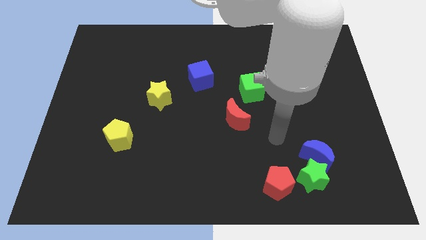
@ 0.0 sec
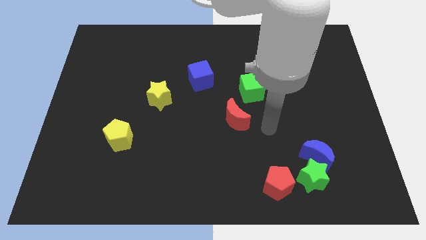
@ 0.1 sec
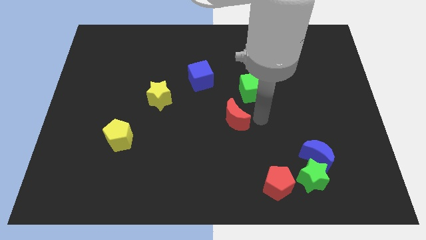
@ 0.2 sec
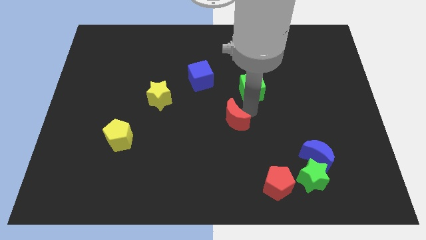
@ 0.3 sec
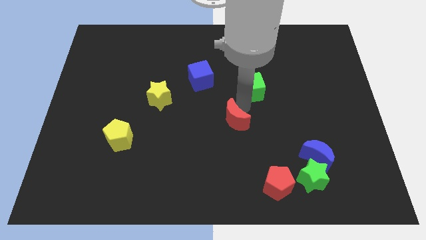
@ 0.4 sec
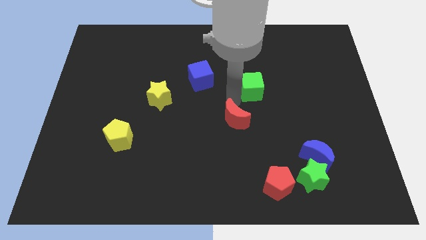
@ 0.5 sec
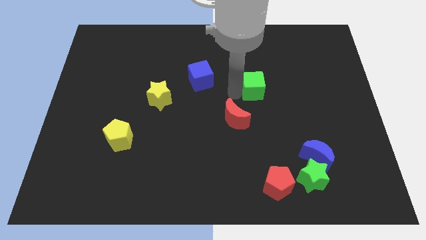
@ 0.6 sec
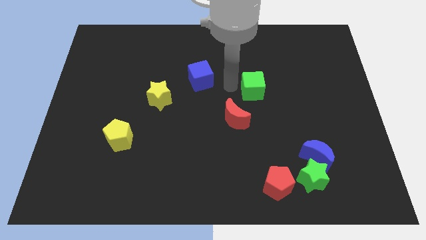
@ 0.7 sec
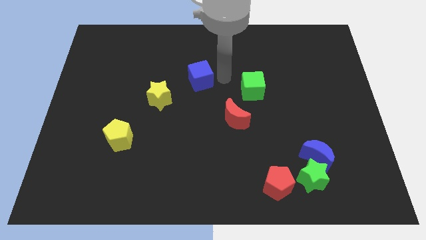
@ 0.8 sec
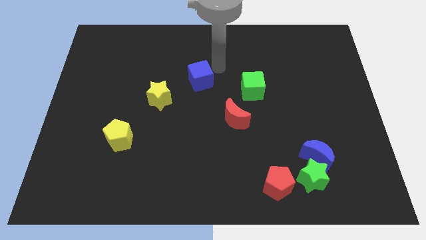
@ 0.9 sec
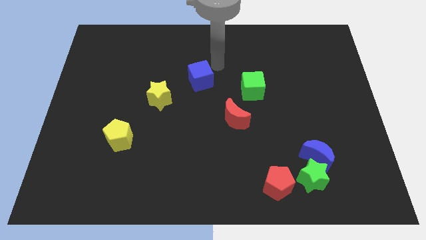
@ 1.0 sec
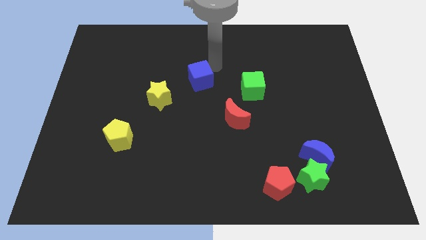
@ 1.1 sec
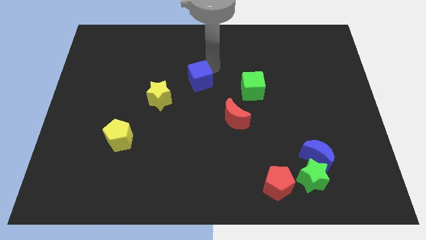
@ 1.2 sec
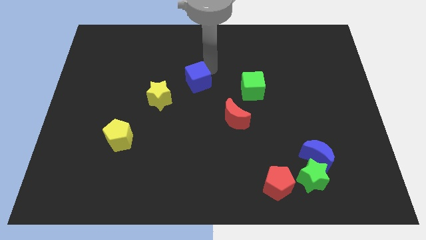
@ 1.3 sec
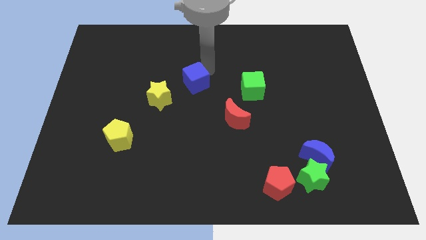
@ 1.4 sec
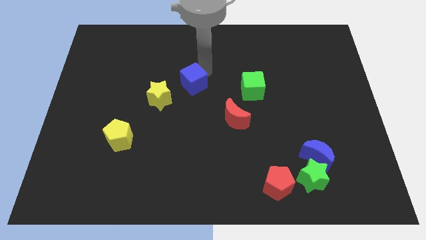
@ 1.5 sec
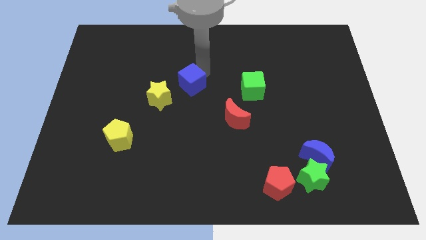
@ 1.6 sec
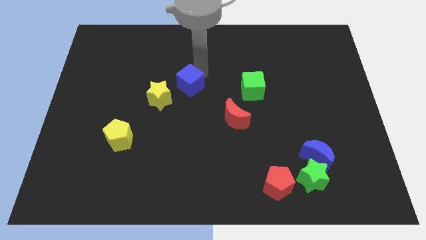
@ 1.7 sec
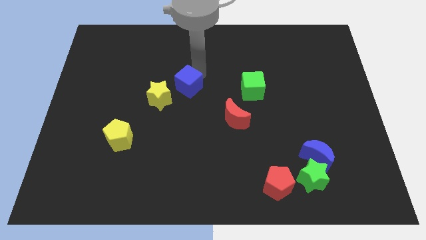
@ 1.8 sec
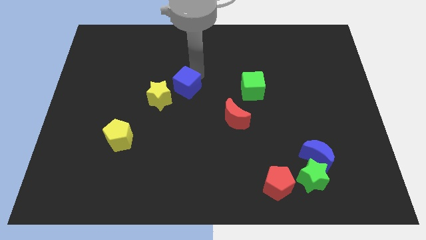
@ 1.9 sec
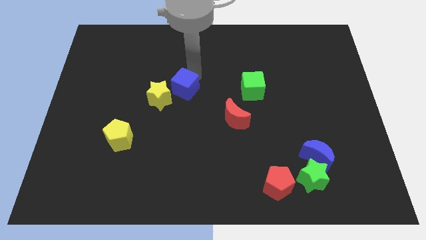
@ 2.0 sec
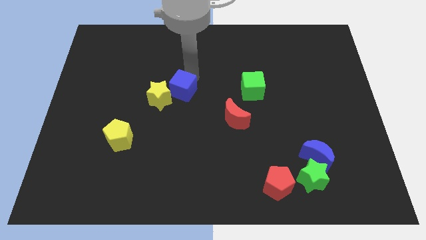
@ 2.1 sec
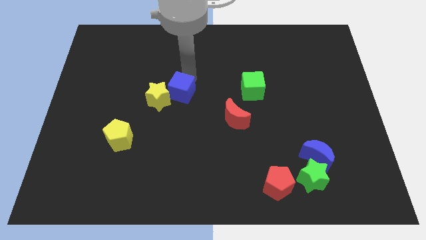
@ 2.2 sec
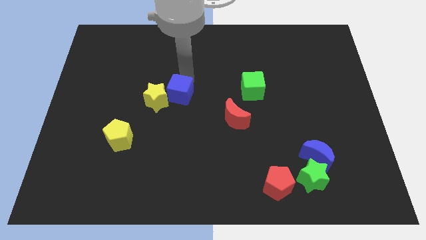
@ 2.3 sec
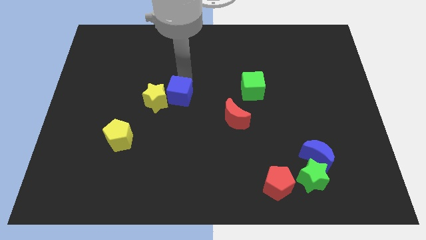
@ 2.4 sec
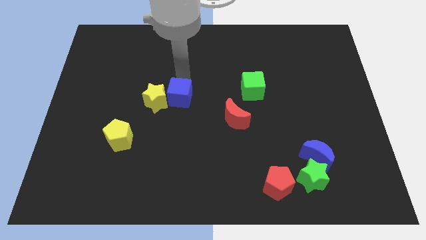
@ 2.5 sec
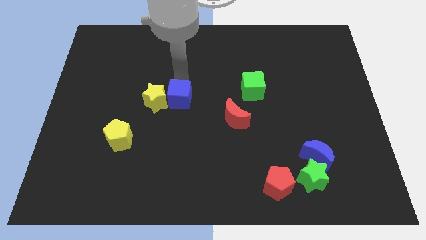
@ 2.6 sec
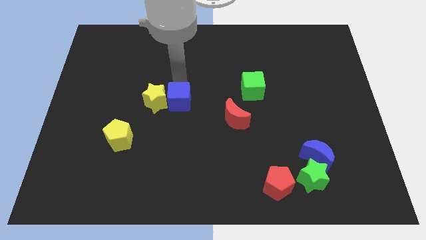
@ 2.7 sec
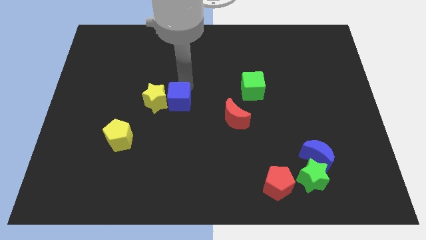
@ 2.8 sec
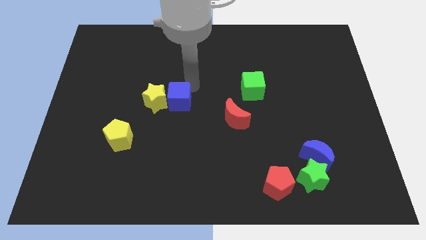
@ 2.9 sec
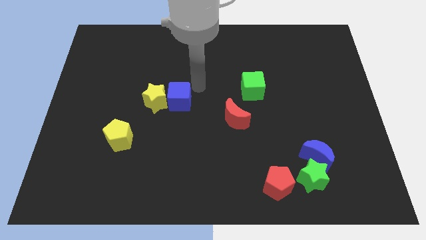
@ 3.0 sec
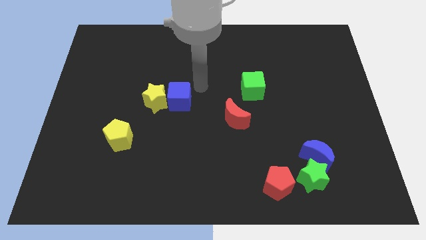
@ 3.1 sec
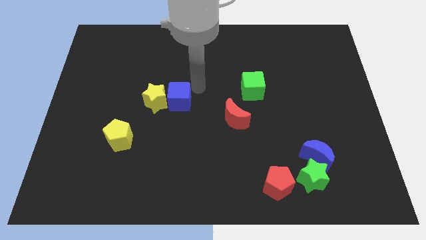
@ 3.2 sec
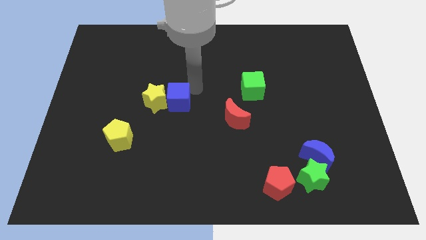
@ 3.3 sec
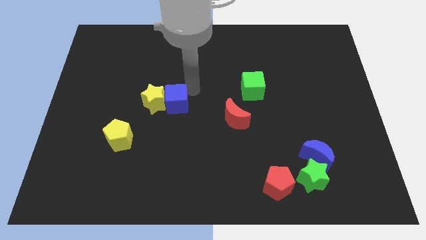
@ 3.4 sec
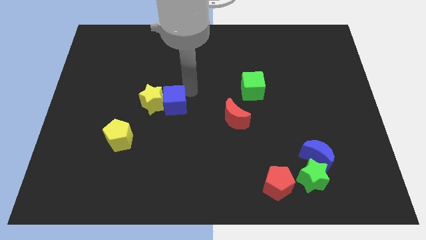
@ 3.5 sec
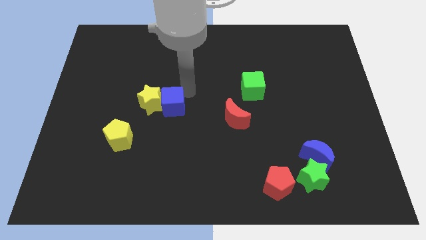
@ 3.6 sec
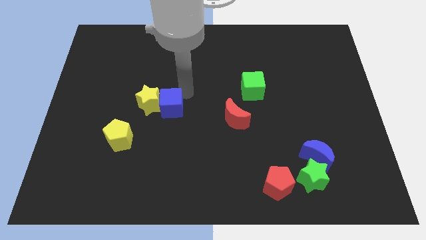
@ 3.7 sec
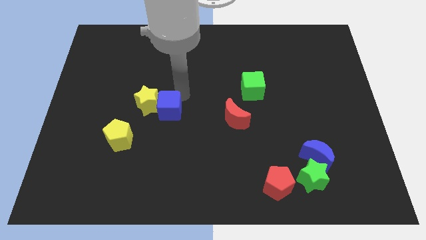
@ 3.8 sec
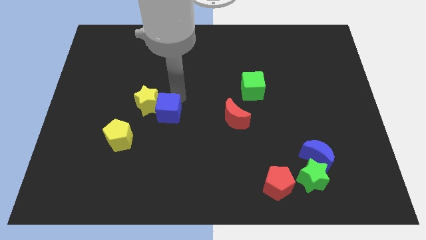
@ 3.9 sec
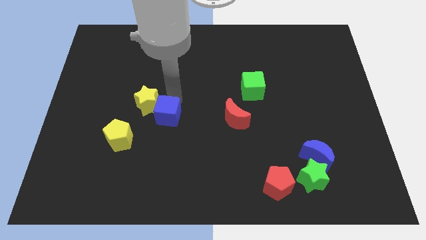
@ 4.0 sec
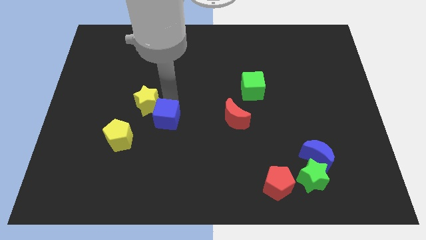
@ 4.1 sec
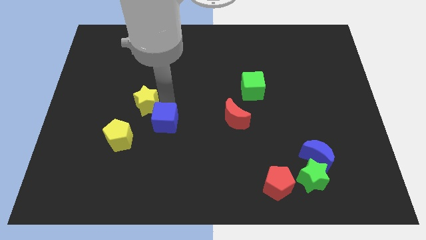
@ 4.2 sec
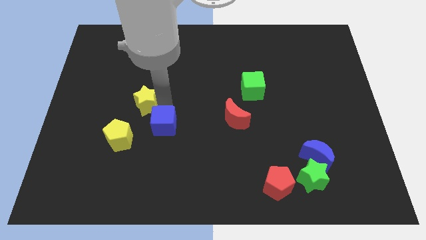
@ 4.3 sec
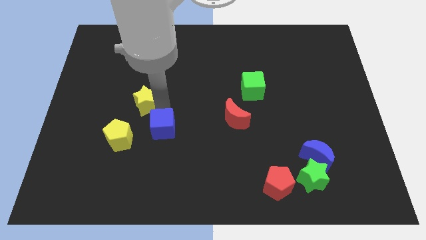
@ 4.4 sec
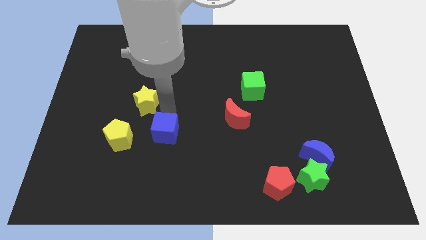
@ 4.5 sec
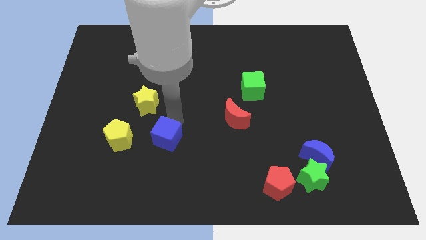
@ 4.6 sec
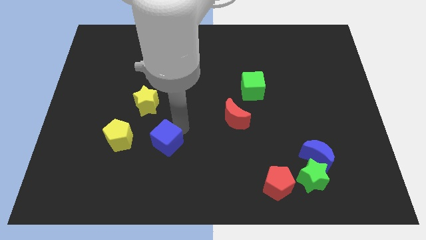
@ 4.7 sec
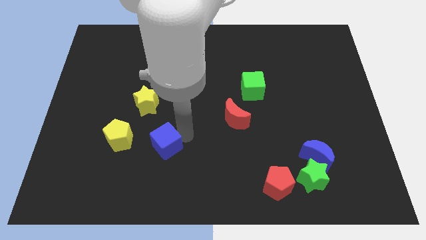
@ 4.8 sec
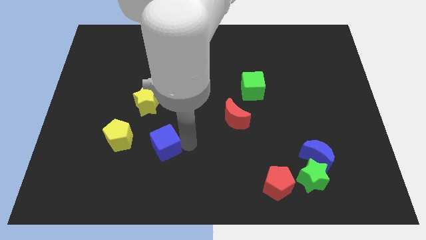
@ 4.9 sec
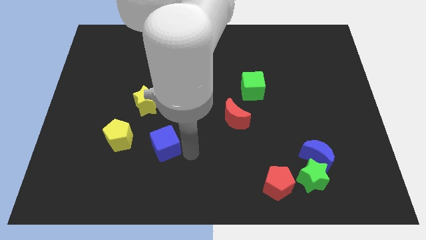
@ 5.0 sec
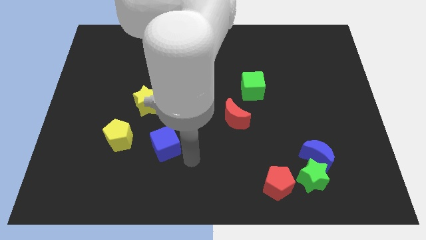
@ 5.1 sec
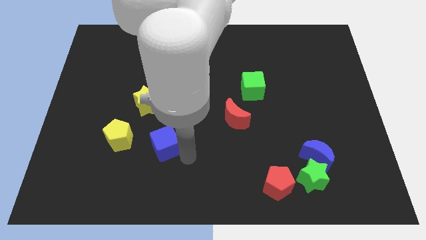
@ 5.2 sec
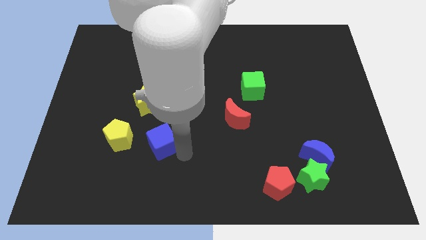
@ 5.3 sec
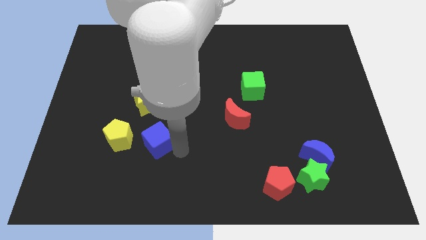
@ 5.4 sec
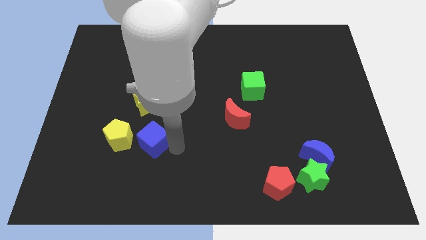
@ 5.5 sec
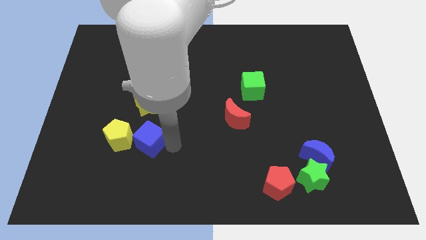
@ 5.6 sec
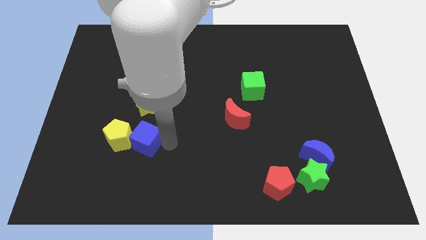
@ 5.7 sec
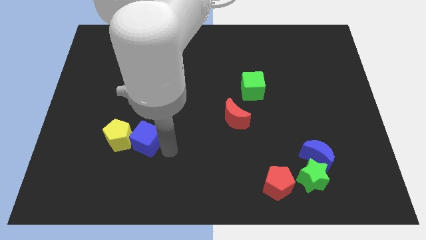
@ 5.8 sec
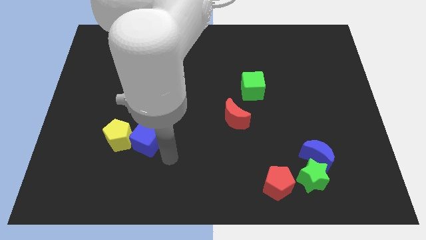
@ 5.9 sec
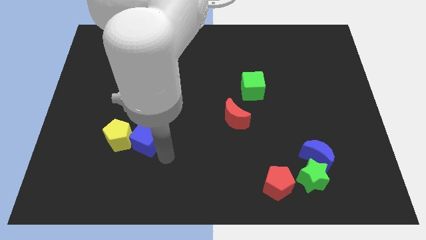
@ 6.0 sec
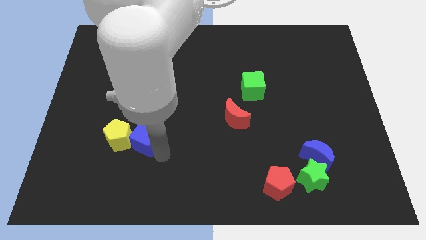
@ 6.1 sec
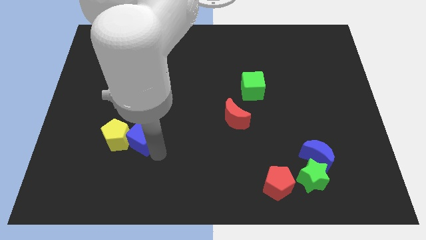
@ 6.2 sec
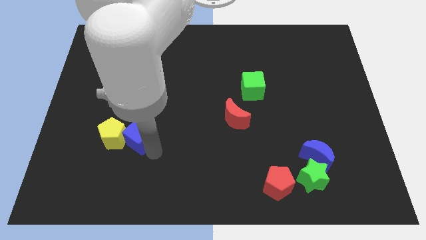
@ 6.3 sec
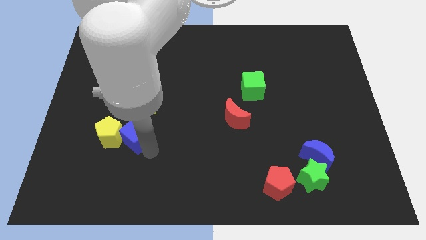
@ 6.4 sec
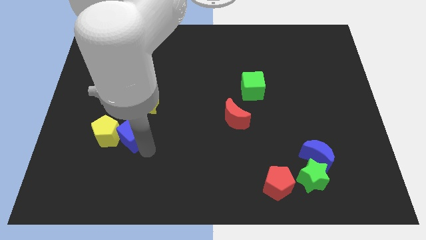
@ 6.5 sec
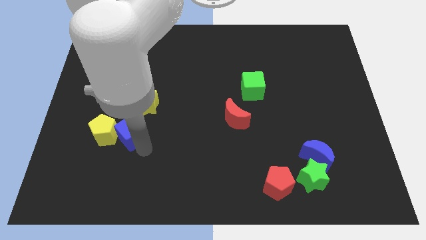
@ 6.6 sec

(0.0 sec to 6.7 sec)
move the blue cube to the bottom left side of the yellow star
